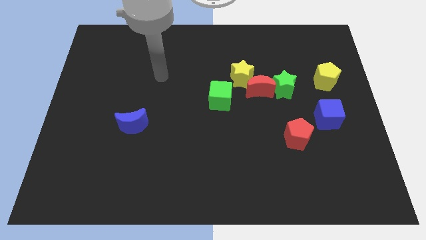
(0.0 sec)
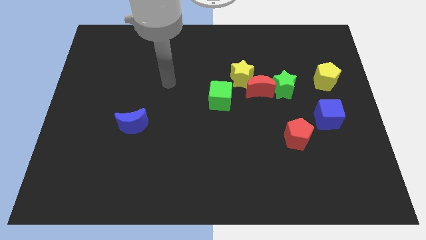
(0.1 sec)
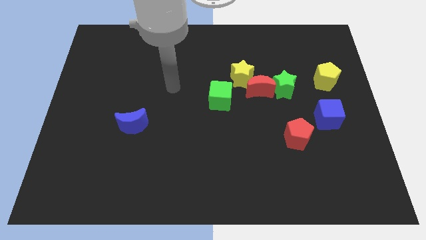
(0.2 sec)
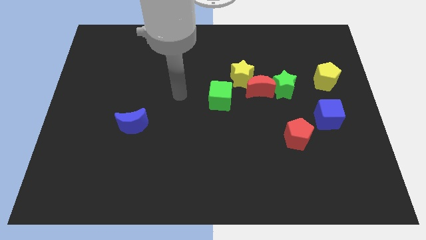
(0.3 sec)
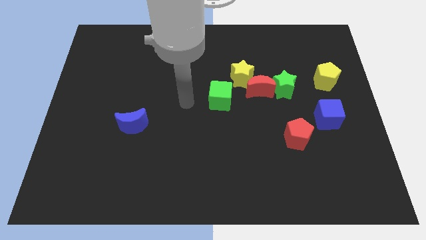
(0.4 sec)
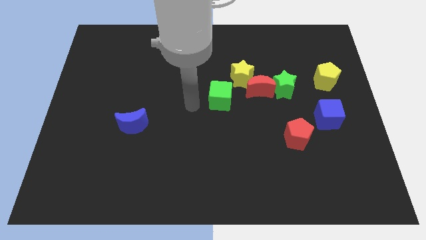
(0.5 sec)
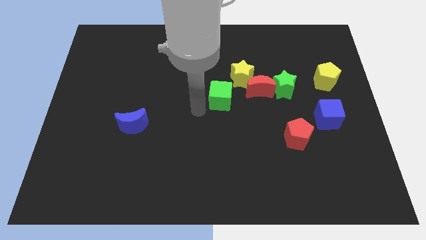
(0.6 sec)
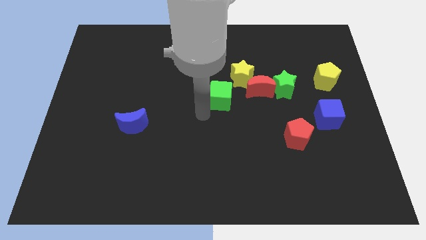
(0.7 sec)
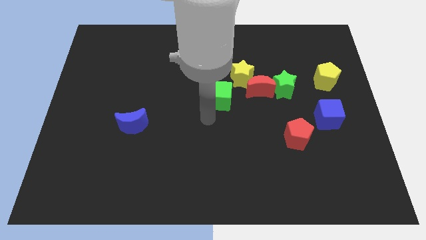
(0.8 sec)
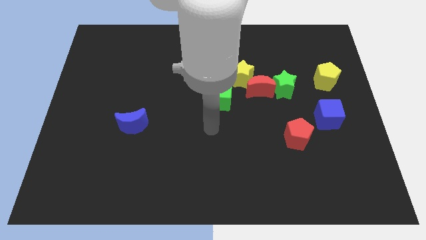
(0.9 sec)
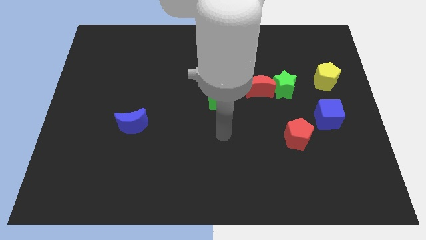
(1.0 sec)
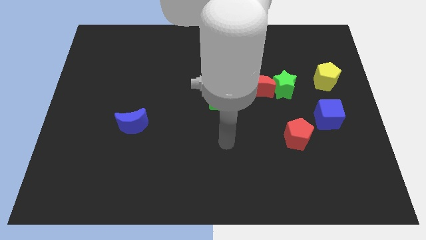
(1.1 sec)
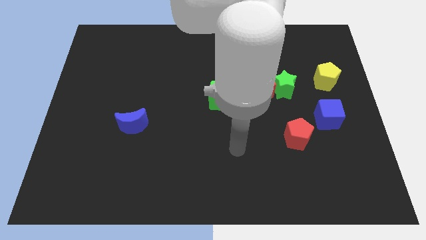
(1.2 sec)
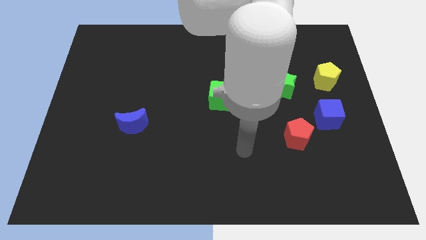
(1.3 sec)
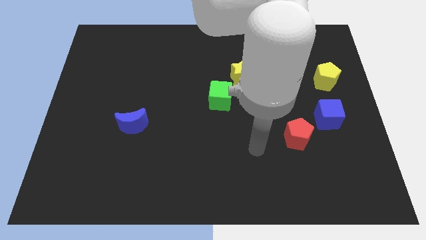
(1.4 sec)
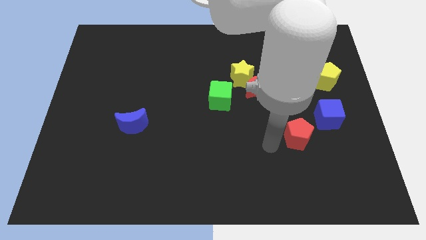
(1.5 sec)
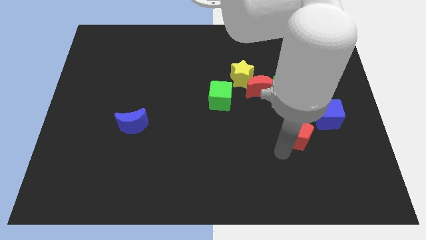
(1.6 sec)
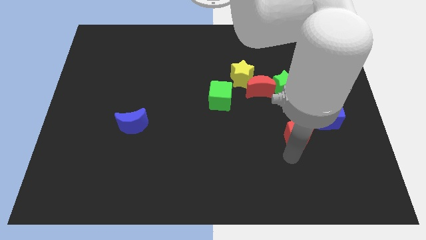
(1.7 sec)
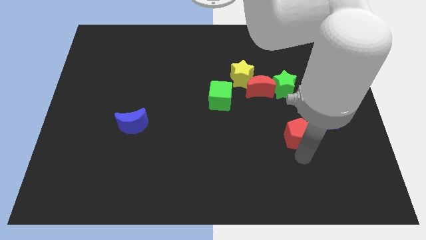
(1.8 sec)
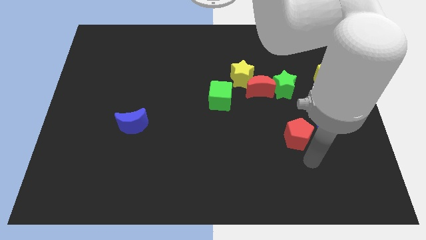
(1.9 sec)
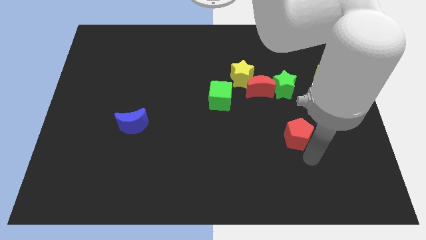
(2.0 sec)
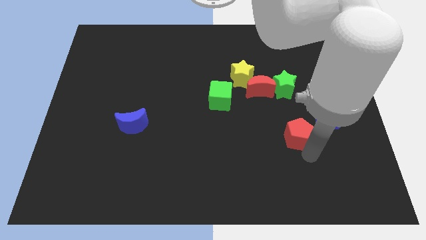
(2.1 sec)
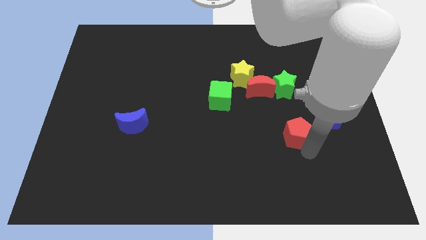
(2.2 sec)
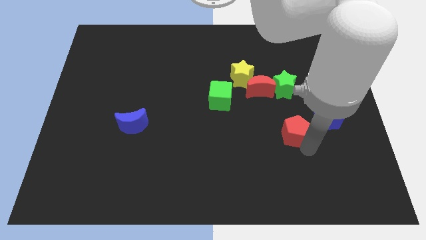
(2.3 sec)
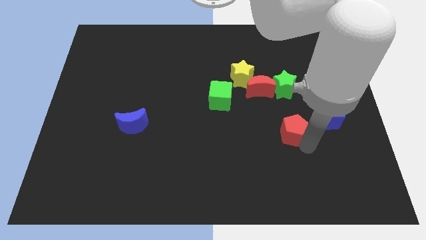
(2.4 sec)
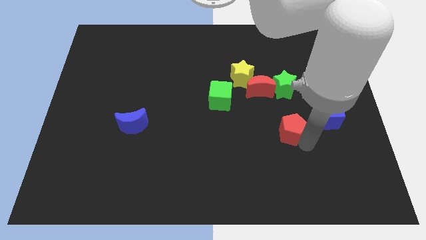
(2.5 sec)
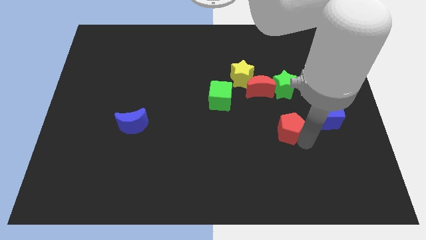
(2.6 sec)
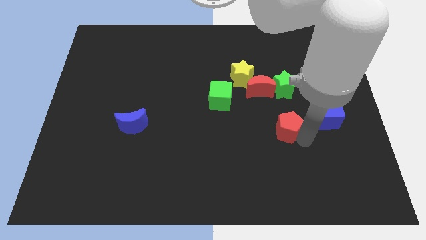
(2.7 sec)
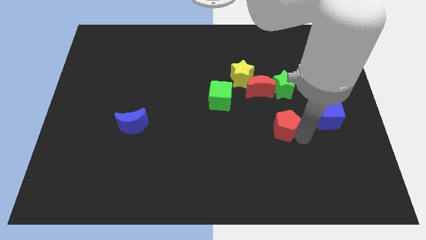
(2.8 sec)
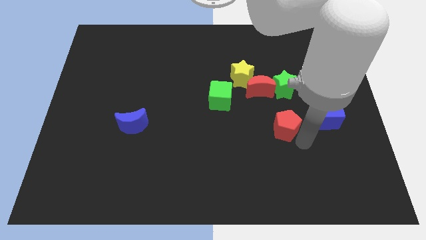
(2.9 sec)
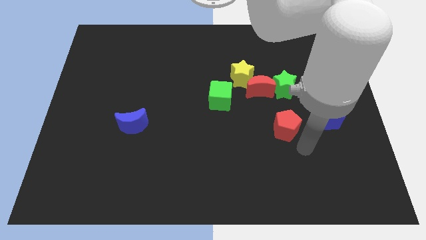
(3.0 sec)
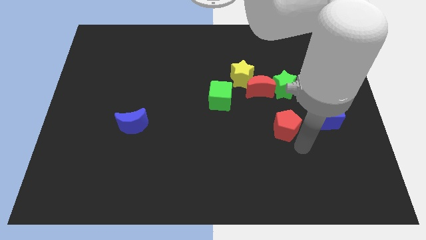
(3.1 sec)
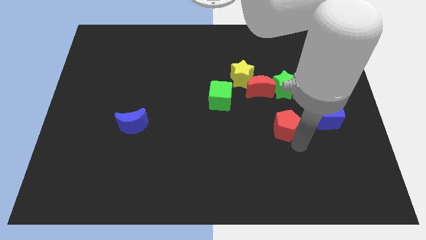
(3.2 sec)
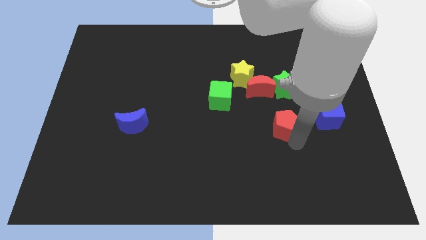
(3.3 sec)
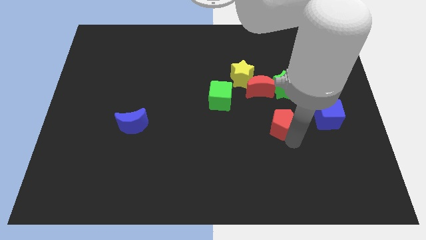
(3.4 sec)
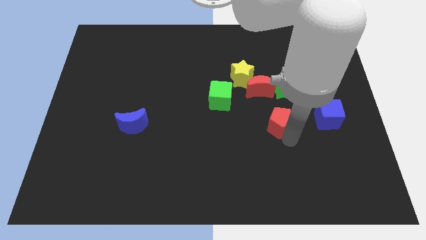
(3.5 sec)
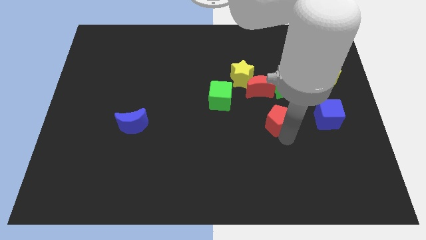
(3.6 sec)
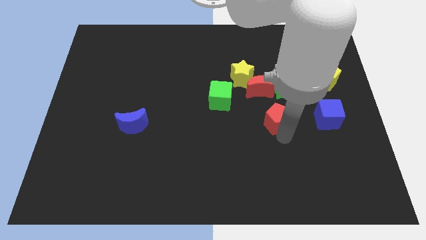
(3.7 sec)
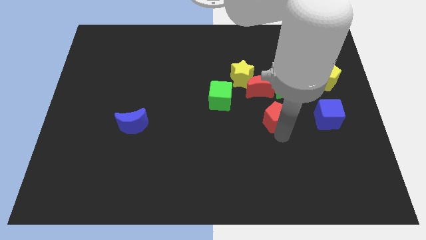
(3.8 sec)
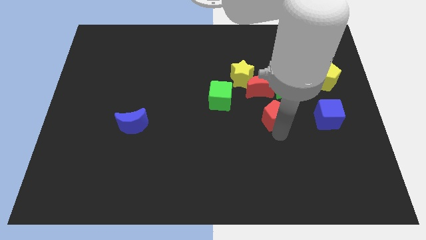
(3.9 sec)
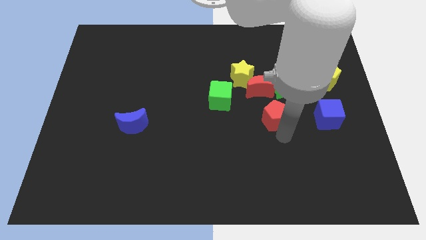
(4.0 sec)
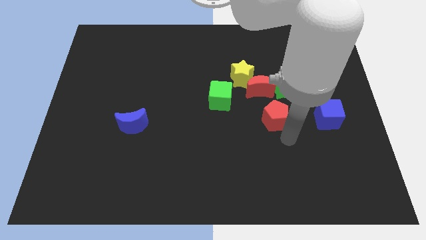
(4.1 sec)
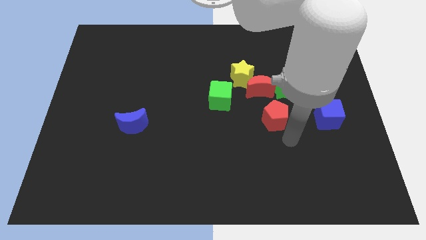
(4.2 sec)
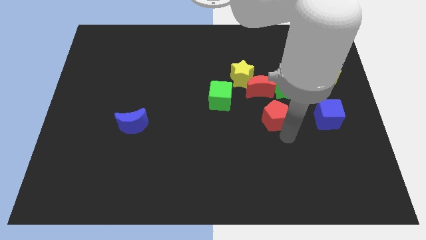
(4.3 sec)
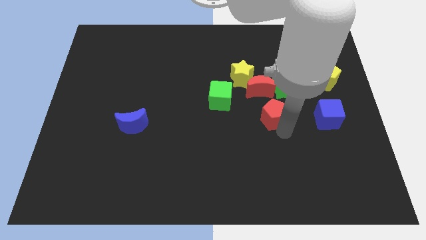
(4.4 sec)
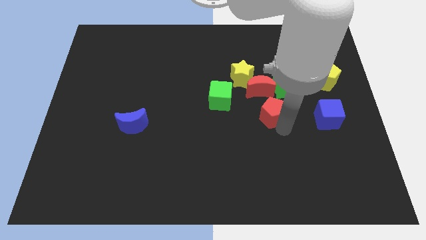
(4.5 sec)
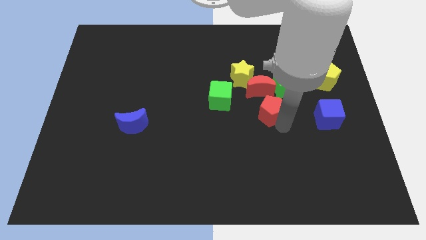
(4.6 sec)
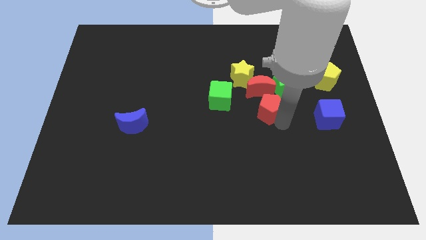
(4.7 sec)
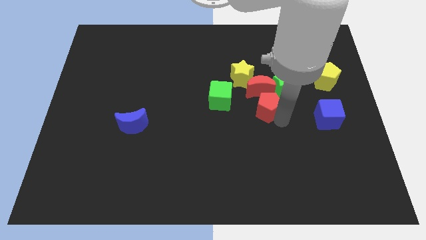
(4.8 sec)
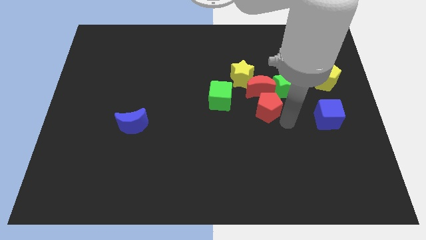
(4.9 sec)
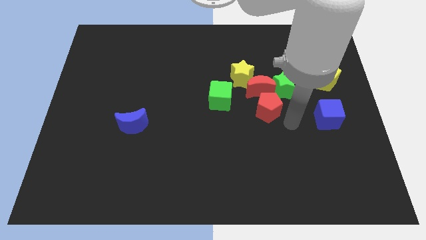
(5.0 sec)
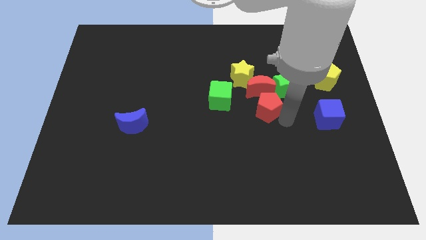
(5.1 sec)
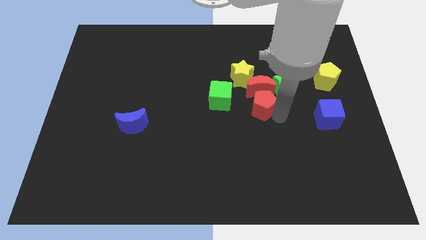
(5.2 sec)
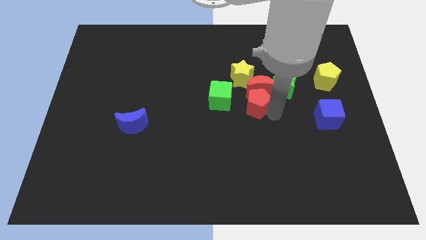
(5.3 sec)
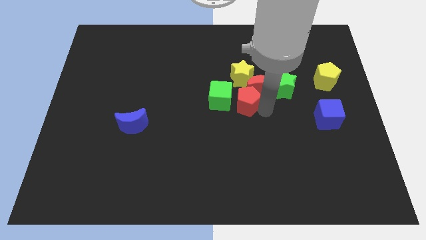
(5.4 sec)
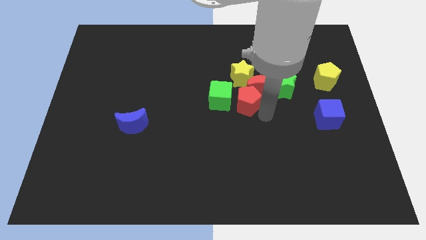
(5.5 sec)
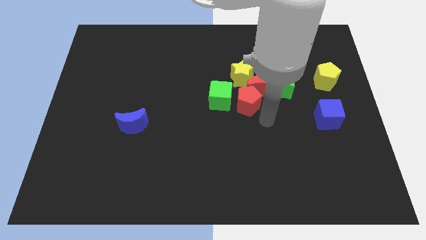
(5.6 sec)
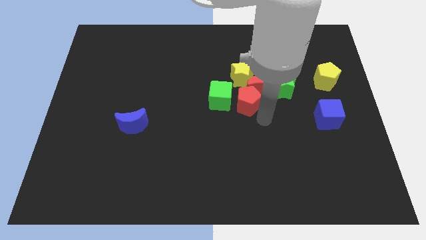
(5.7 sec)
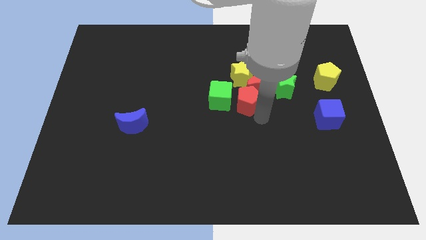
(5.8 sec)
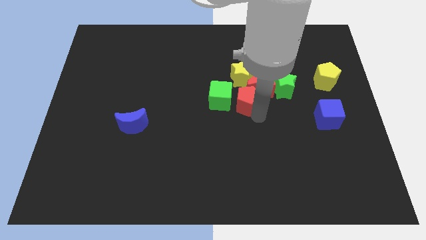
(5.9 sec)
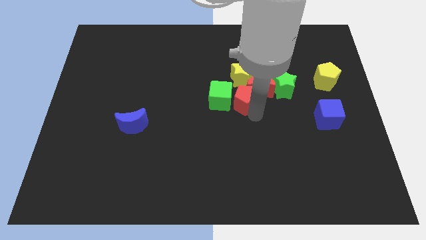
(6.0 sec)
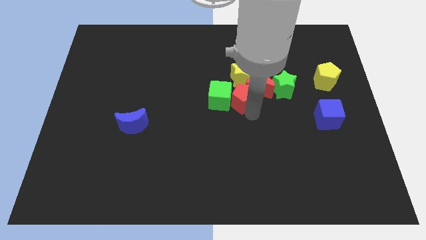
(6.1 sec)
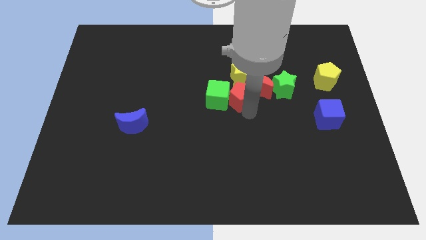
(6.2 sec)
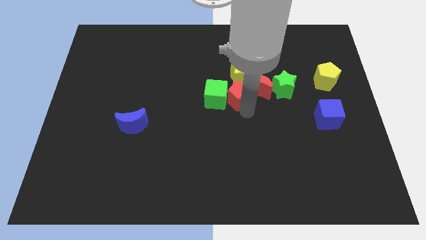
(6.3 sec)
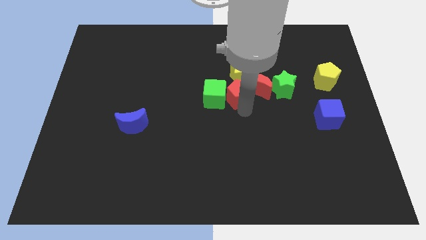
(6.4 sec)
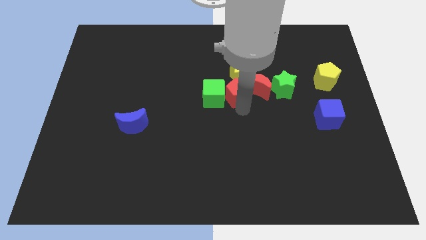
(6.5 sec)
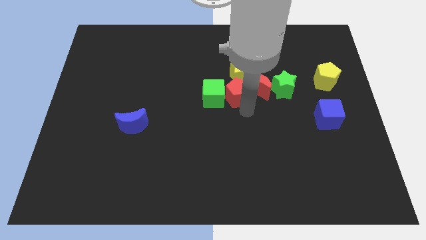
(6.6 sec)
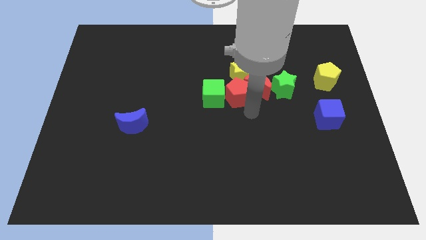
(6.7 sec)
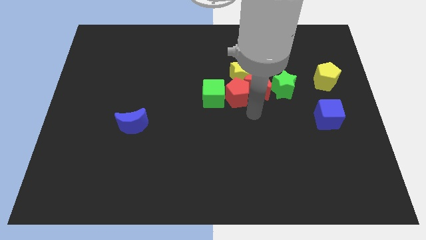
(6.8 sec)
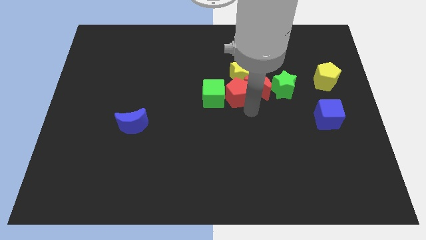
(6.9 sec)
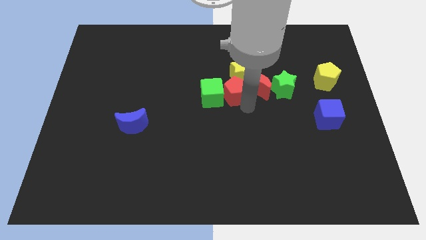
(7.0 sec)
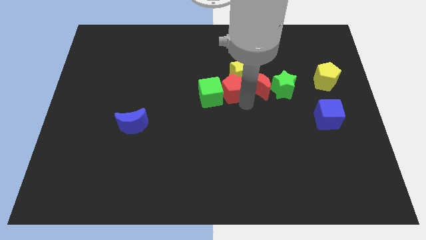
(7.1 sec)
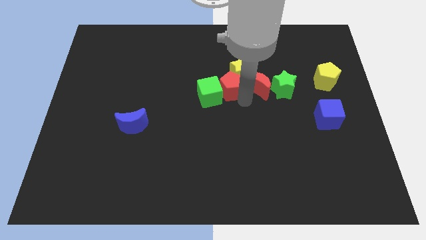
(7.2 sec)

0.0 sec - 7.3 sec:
move the red pentagon upwards and then to the left

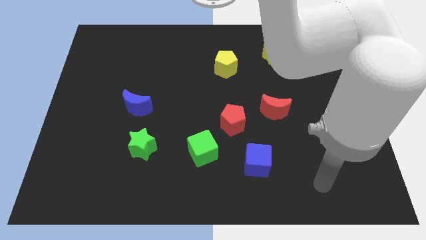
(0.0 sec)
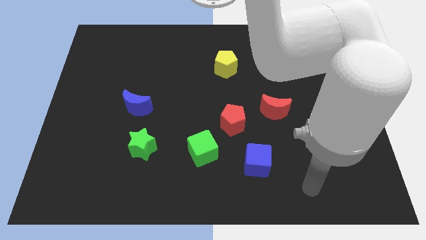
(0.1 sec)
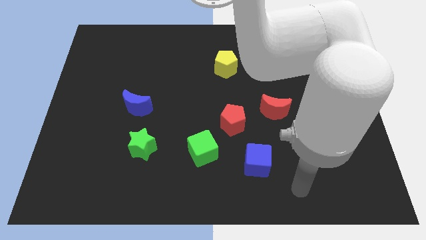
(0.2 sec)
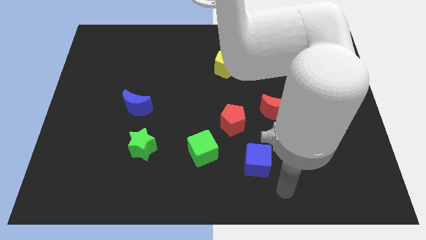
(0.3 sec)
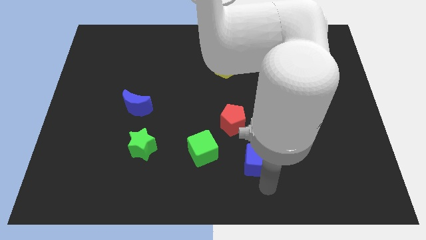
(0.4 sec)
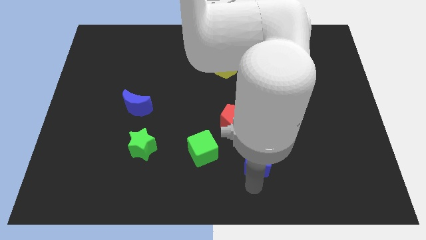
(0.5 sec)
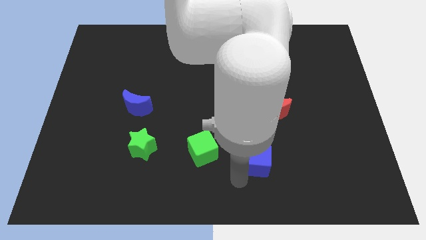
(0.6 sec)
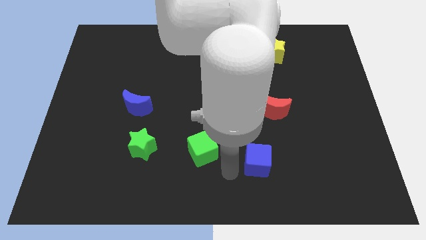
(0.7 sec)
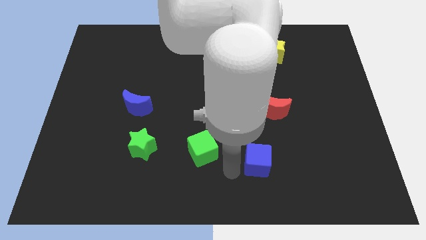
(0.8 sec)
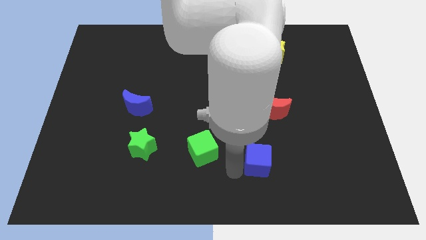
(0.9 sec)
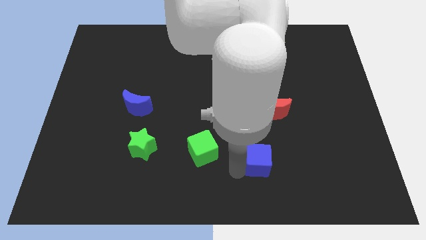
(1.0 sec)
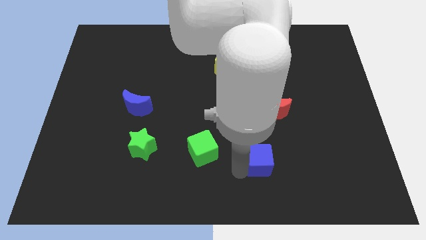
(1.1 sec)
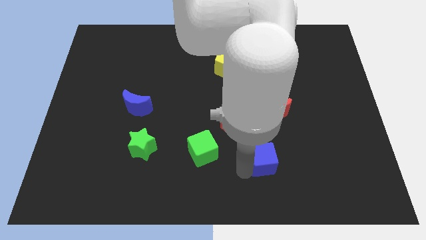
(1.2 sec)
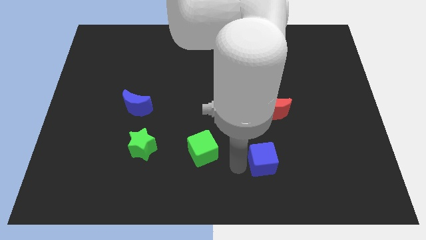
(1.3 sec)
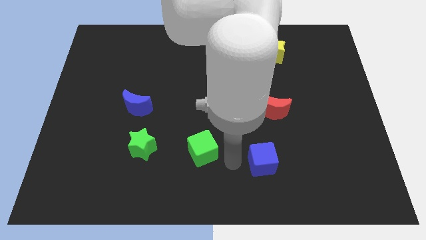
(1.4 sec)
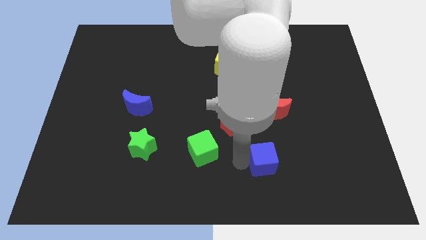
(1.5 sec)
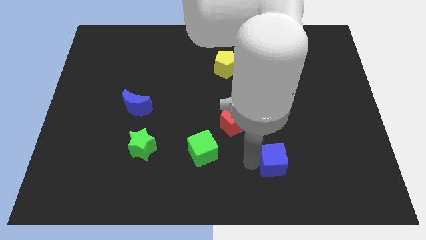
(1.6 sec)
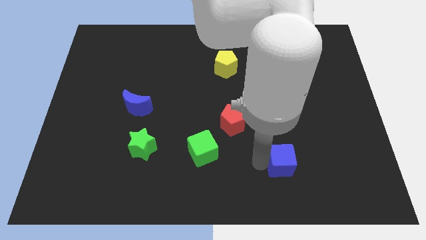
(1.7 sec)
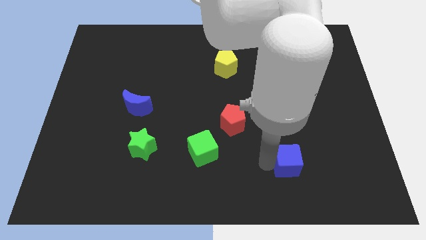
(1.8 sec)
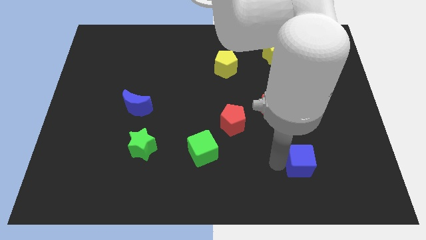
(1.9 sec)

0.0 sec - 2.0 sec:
slightly move the blue cube right
